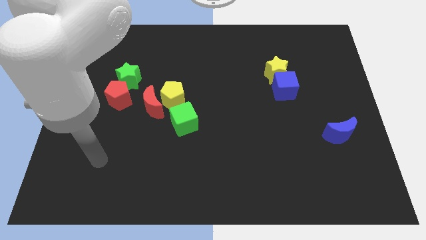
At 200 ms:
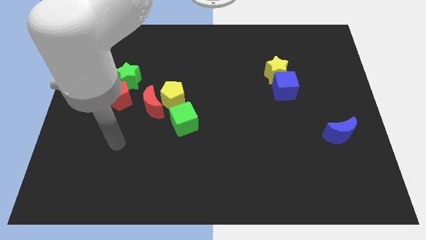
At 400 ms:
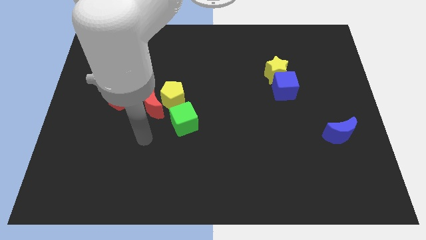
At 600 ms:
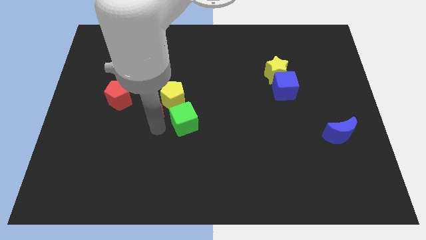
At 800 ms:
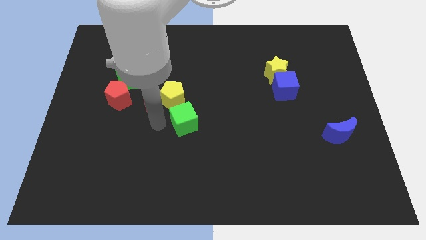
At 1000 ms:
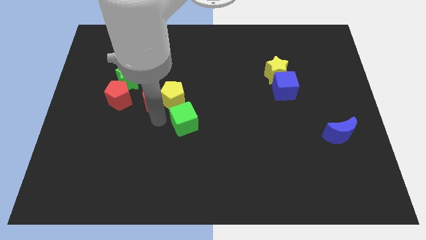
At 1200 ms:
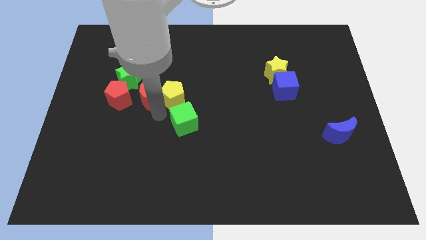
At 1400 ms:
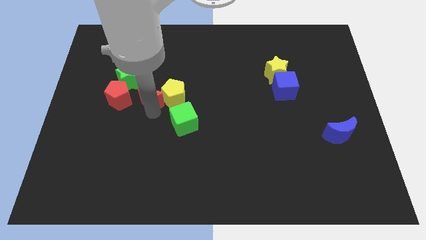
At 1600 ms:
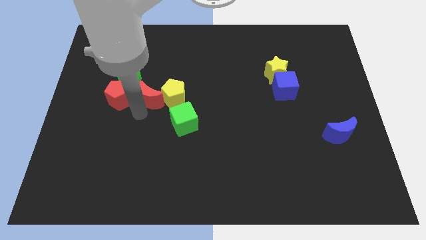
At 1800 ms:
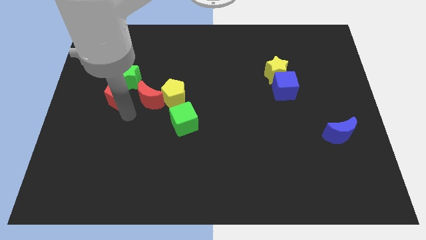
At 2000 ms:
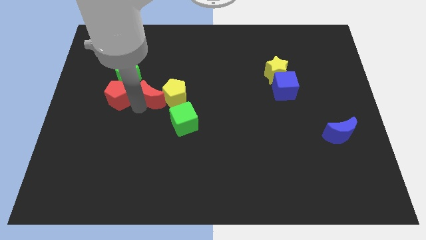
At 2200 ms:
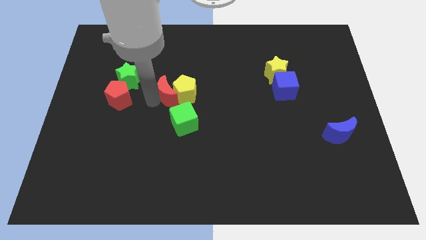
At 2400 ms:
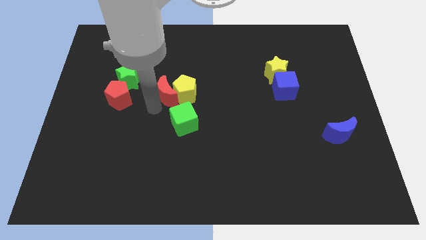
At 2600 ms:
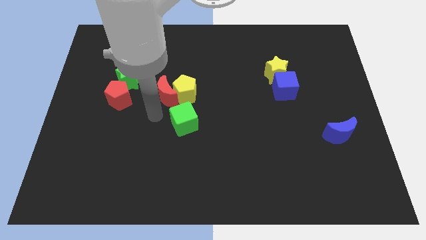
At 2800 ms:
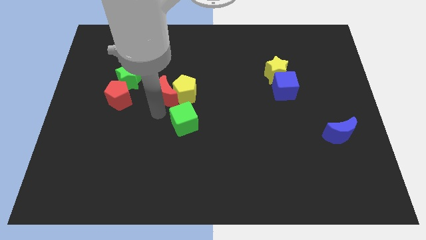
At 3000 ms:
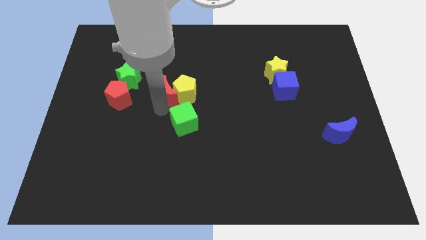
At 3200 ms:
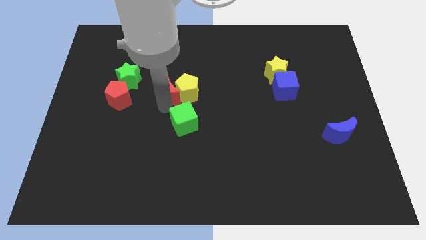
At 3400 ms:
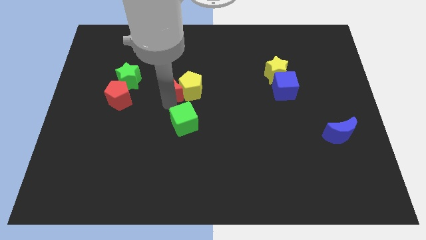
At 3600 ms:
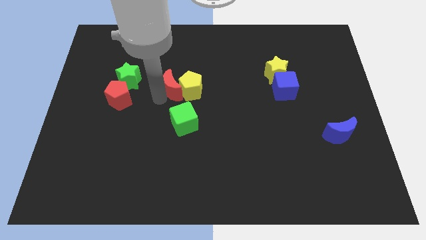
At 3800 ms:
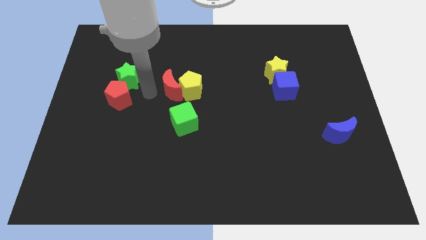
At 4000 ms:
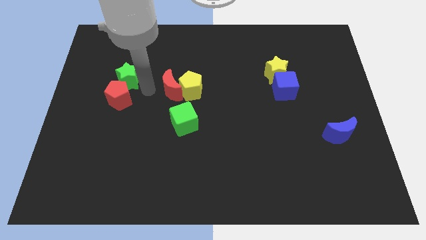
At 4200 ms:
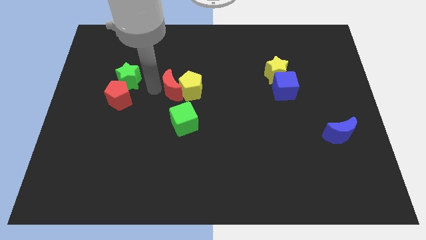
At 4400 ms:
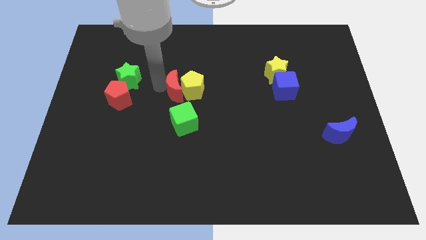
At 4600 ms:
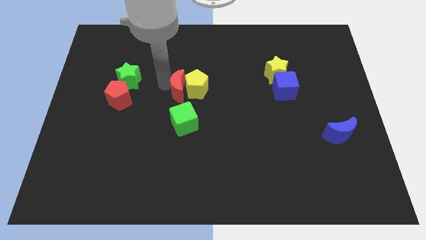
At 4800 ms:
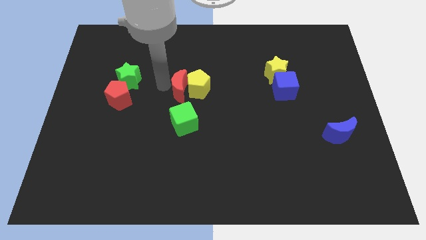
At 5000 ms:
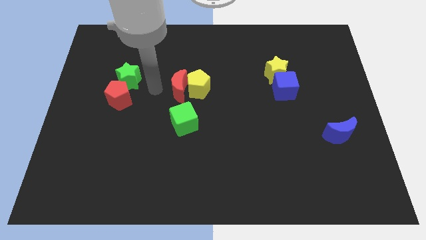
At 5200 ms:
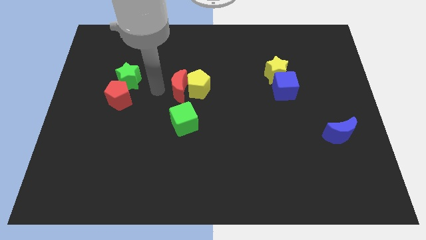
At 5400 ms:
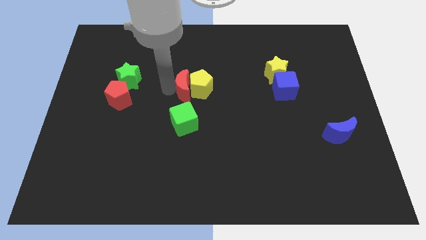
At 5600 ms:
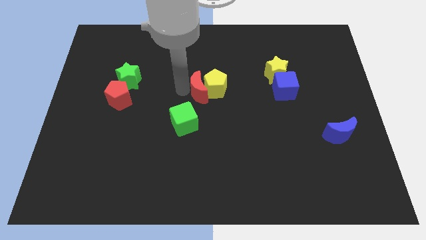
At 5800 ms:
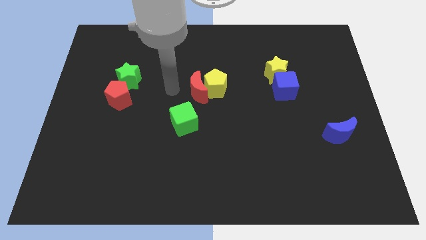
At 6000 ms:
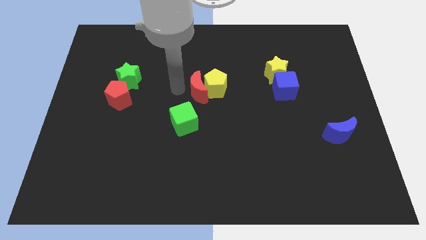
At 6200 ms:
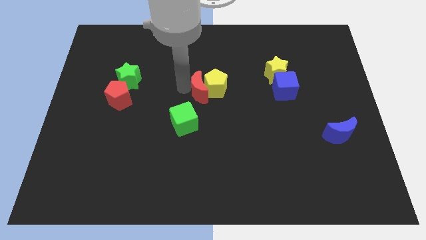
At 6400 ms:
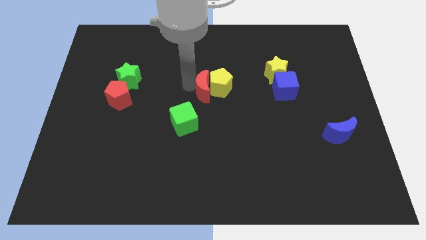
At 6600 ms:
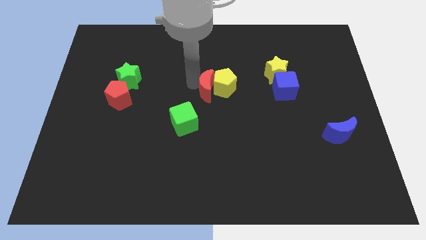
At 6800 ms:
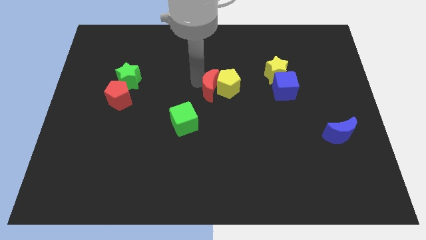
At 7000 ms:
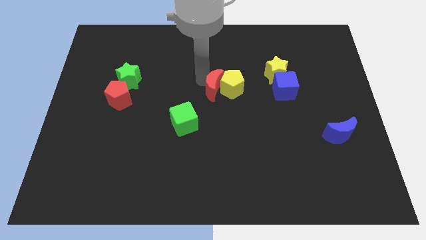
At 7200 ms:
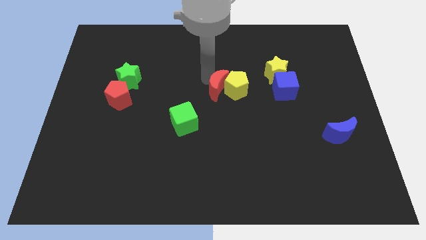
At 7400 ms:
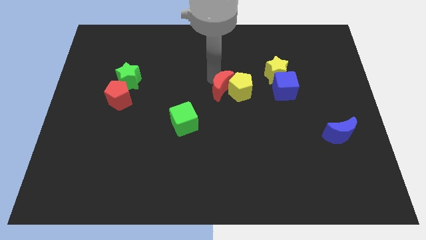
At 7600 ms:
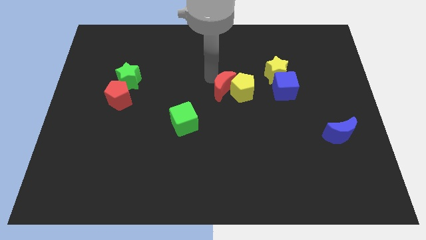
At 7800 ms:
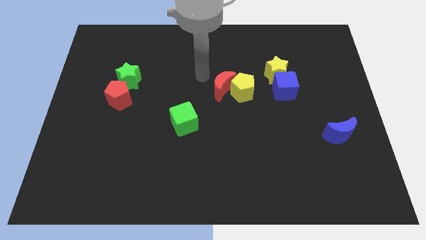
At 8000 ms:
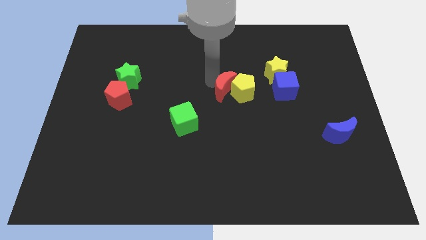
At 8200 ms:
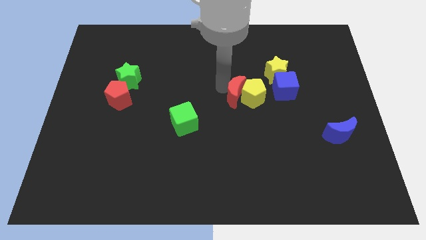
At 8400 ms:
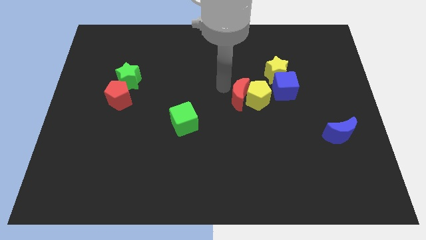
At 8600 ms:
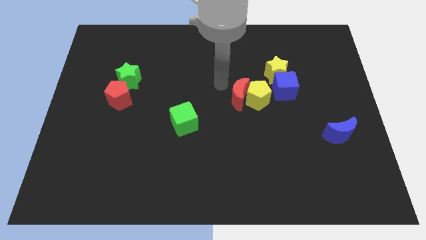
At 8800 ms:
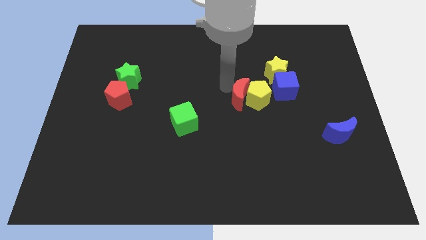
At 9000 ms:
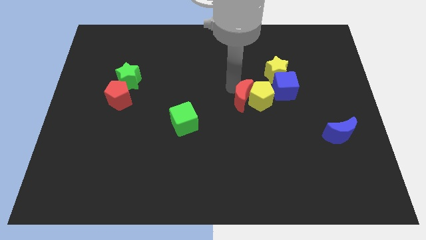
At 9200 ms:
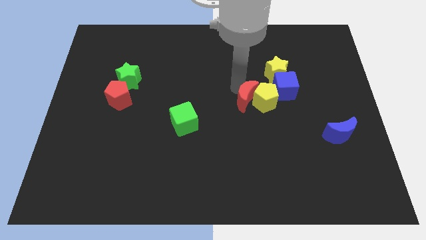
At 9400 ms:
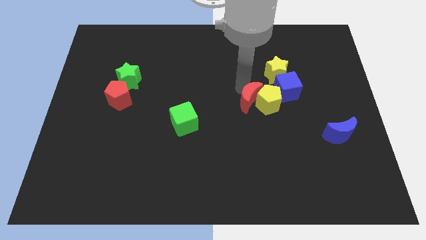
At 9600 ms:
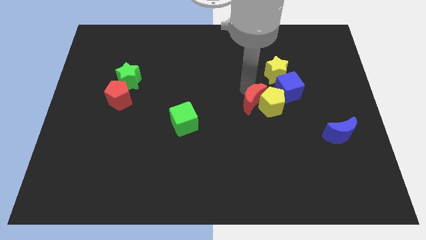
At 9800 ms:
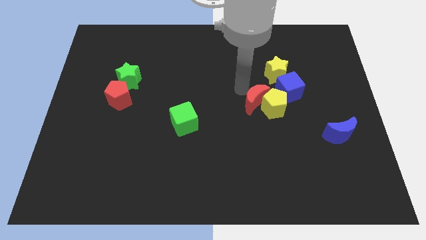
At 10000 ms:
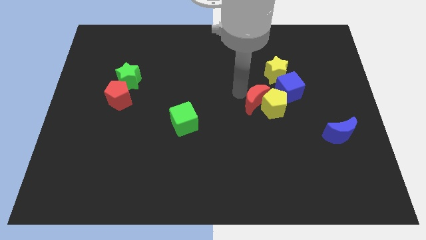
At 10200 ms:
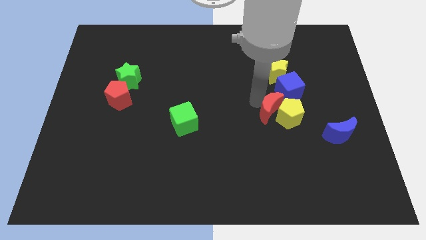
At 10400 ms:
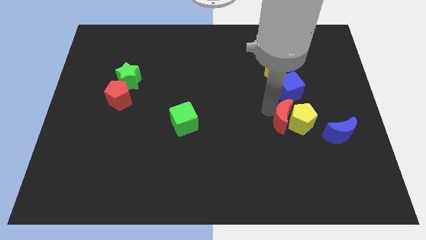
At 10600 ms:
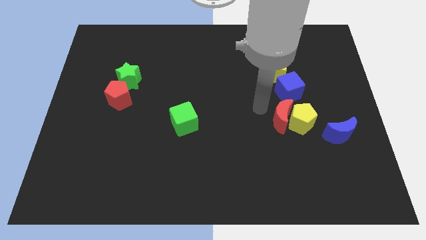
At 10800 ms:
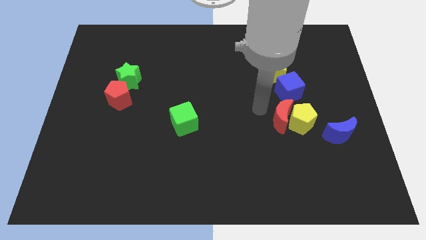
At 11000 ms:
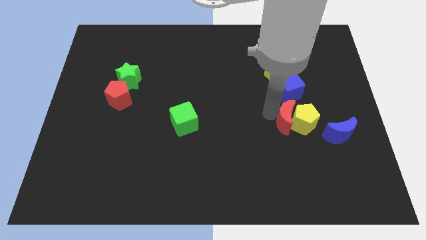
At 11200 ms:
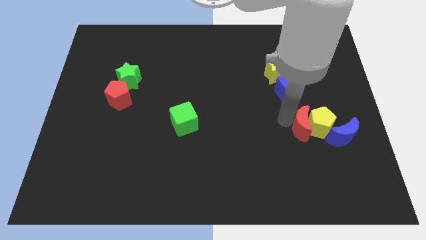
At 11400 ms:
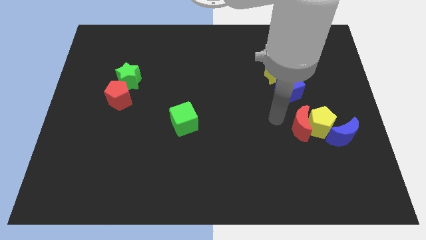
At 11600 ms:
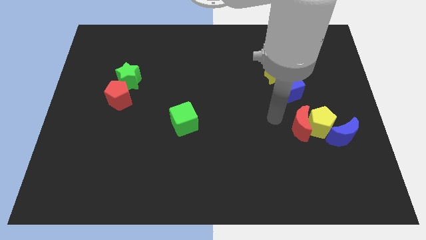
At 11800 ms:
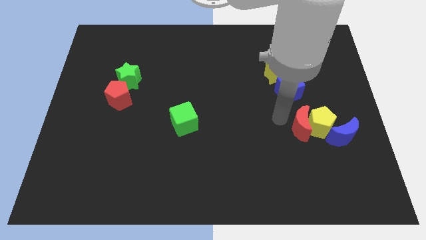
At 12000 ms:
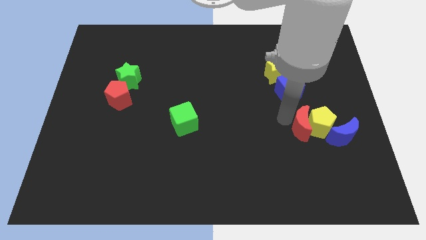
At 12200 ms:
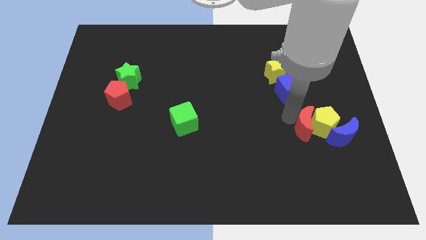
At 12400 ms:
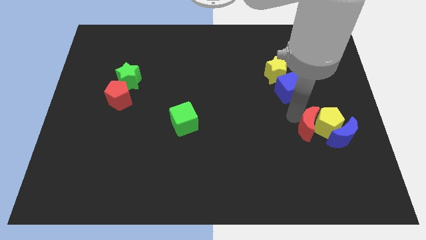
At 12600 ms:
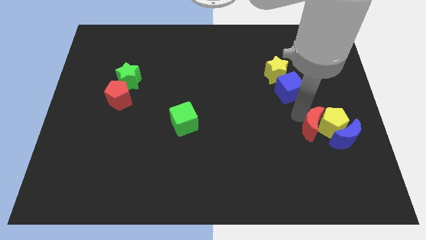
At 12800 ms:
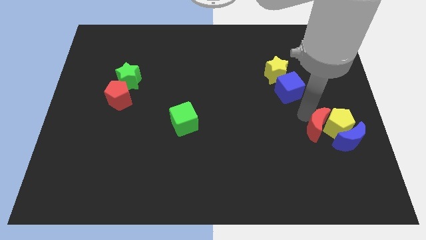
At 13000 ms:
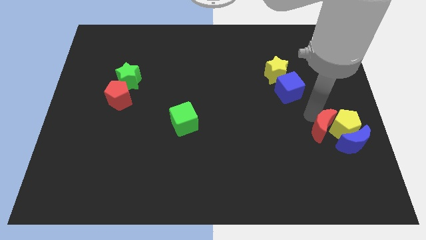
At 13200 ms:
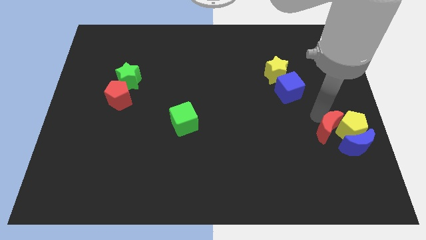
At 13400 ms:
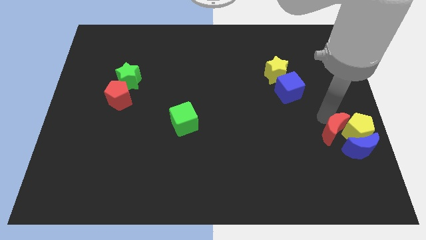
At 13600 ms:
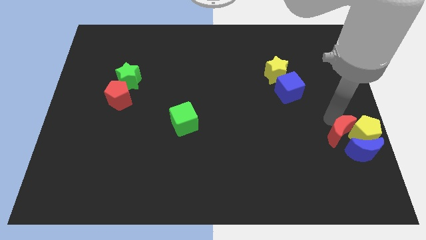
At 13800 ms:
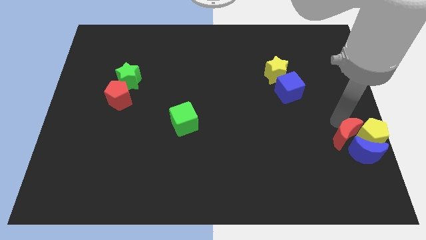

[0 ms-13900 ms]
slide the red moon to the blue moon

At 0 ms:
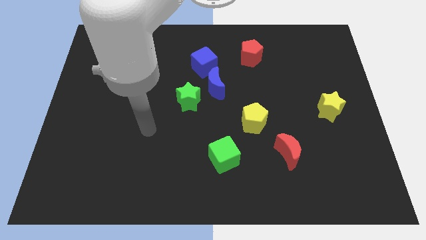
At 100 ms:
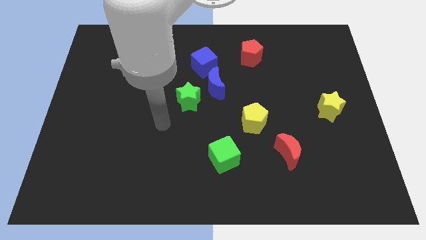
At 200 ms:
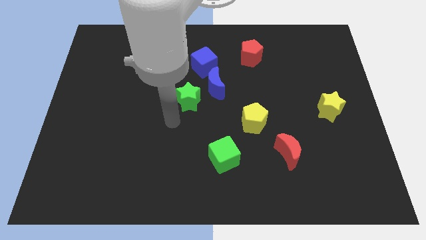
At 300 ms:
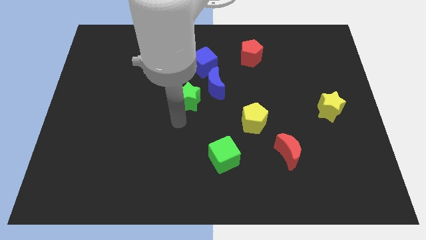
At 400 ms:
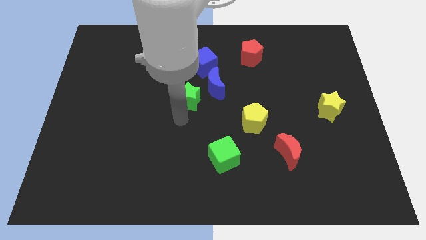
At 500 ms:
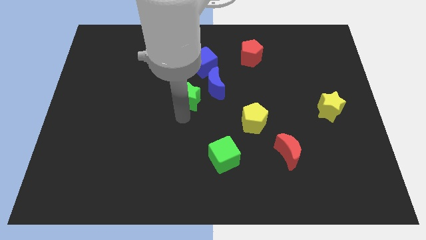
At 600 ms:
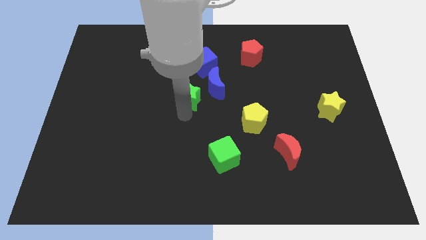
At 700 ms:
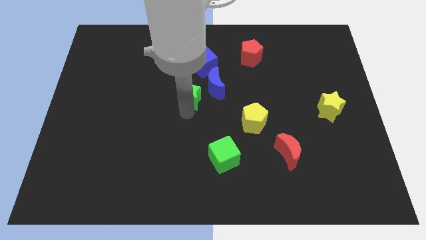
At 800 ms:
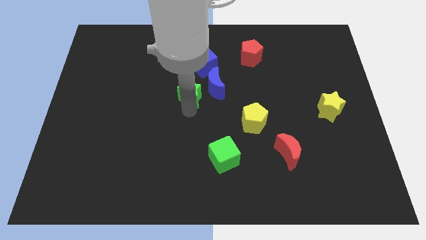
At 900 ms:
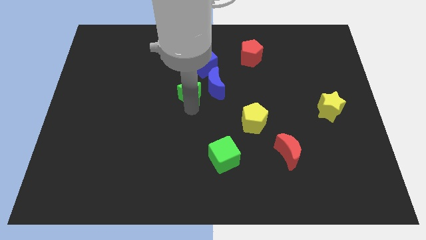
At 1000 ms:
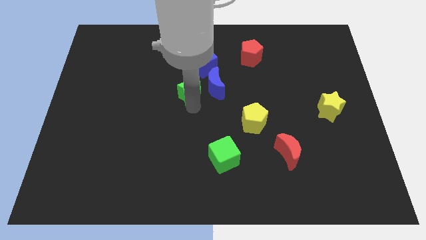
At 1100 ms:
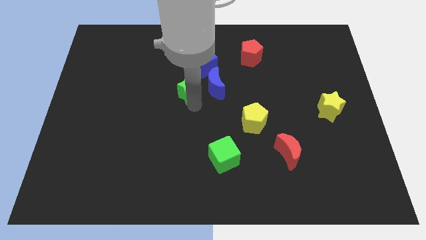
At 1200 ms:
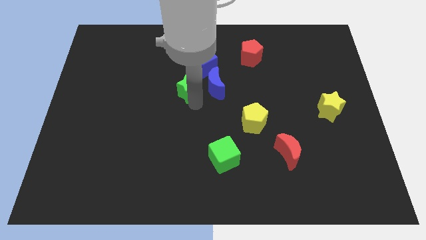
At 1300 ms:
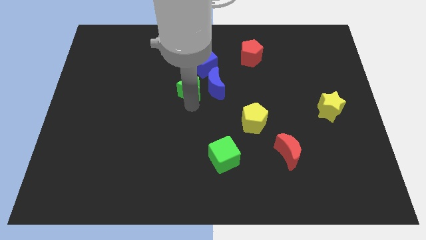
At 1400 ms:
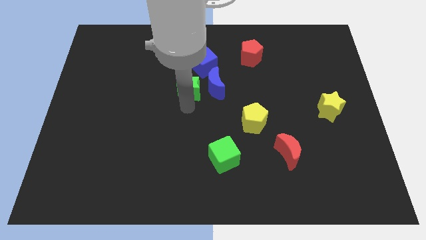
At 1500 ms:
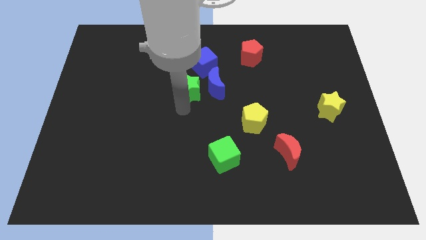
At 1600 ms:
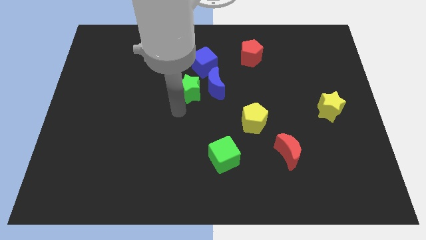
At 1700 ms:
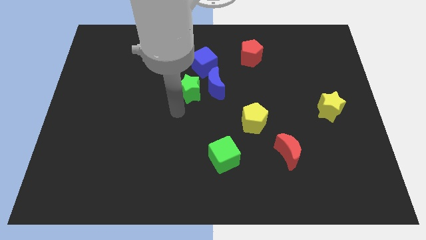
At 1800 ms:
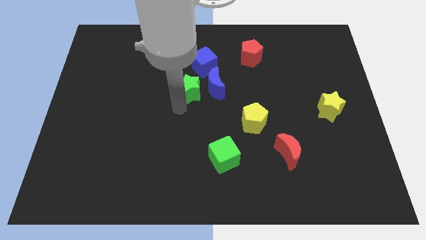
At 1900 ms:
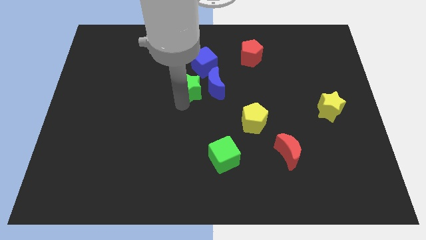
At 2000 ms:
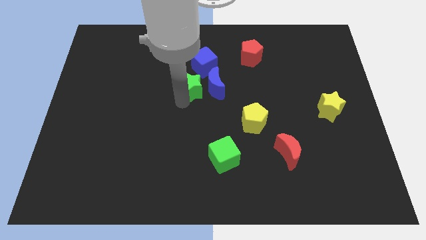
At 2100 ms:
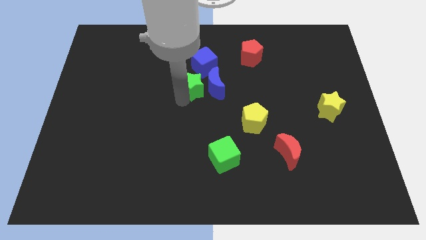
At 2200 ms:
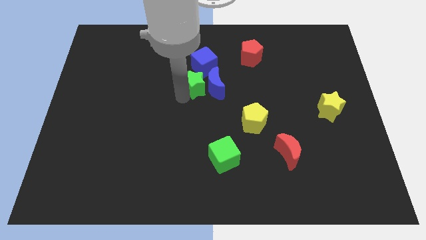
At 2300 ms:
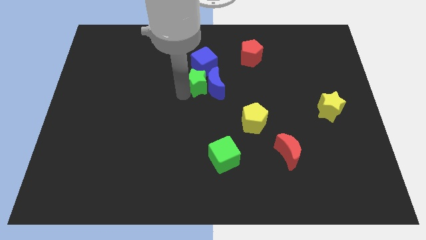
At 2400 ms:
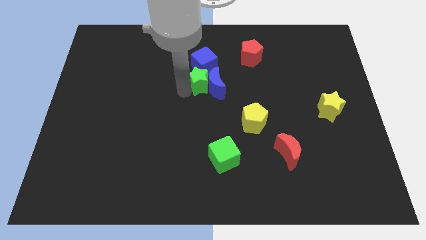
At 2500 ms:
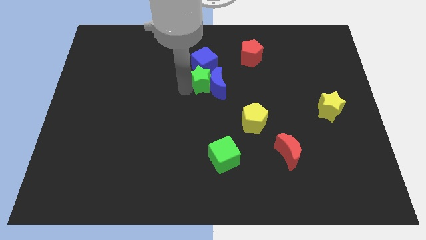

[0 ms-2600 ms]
slide the green star next to the blue cube
